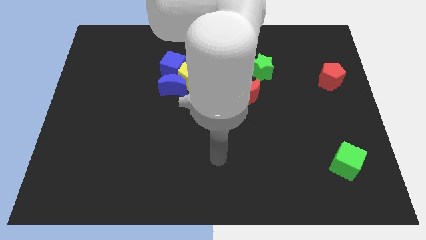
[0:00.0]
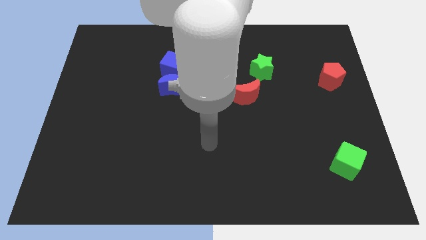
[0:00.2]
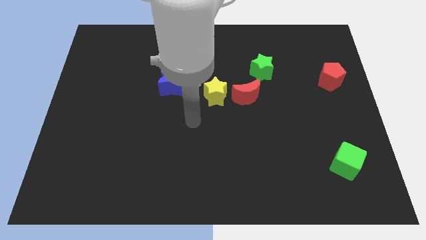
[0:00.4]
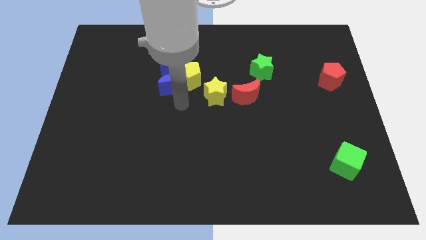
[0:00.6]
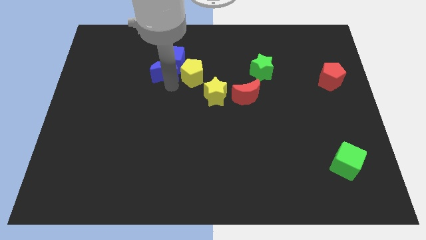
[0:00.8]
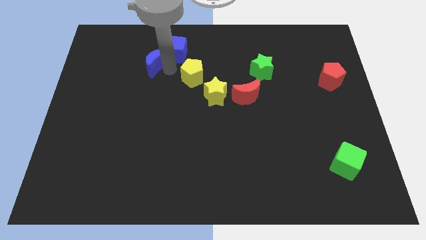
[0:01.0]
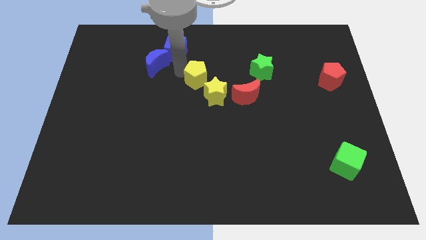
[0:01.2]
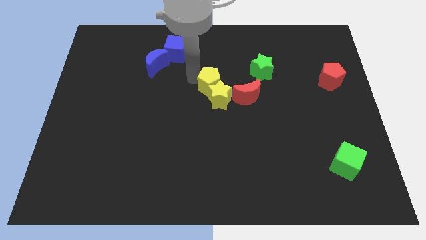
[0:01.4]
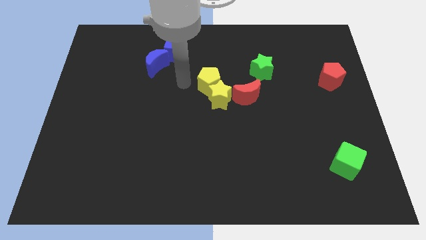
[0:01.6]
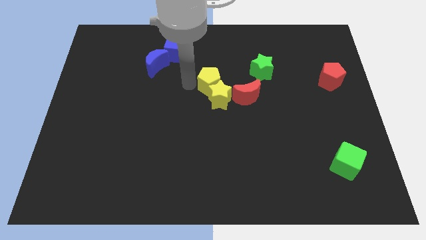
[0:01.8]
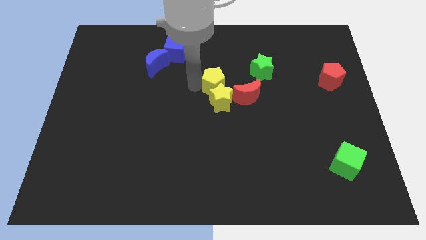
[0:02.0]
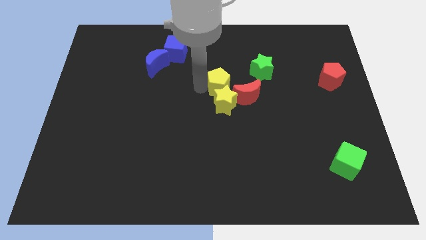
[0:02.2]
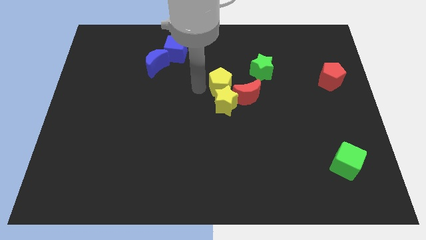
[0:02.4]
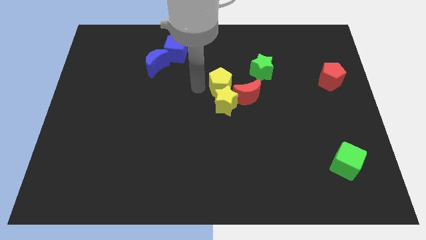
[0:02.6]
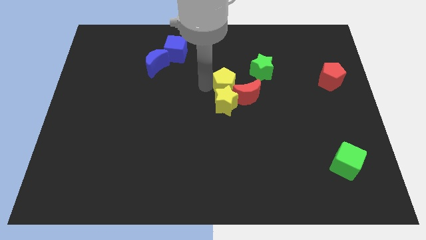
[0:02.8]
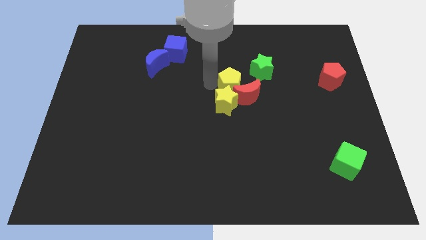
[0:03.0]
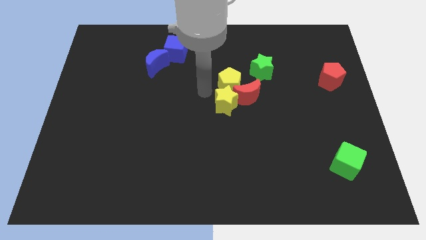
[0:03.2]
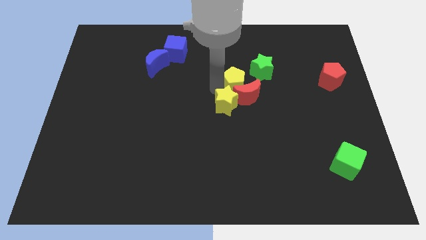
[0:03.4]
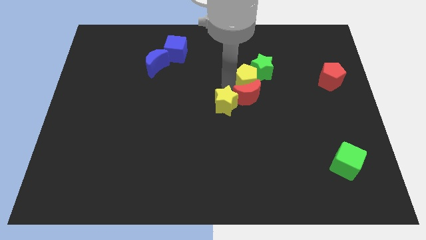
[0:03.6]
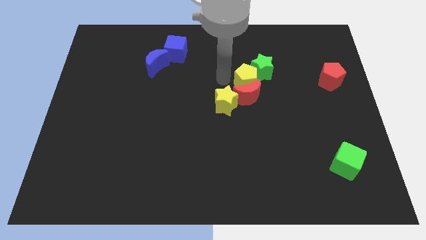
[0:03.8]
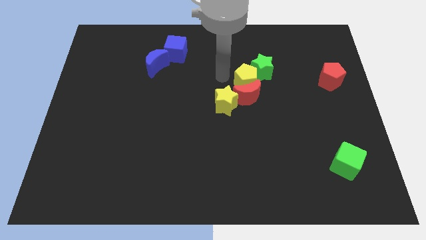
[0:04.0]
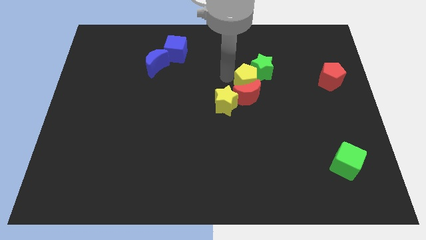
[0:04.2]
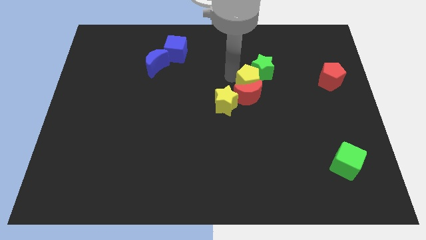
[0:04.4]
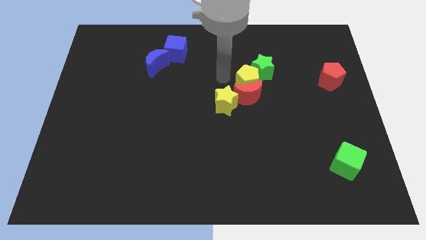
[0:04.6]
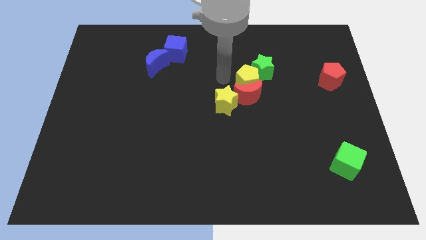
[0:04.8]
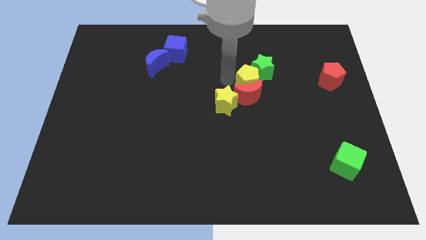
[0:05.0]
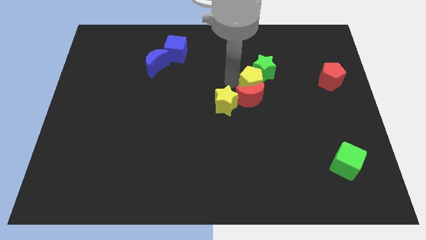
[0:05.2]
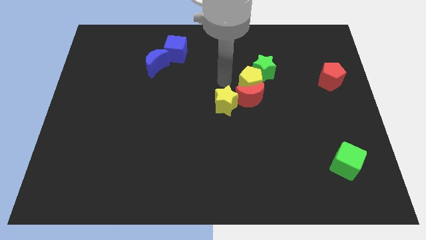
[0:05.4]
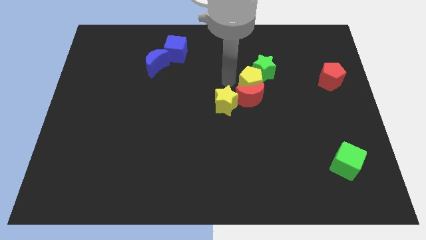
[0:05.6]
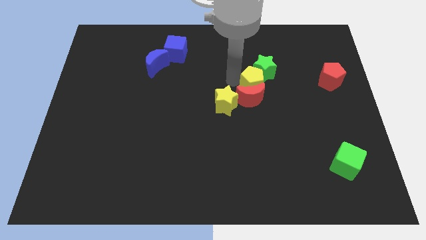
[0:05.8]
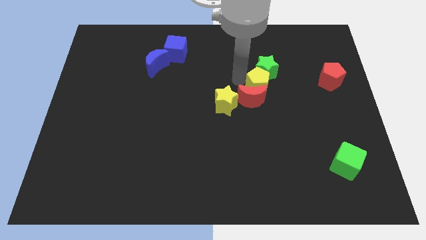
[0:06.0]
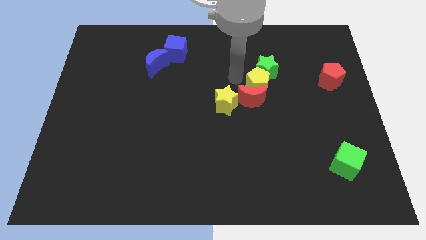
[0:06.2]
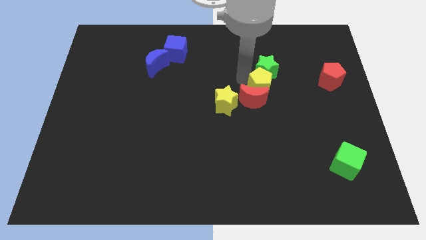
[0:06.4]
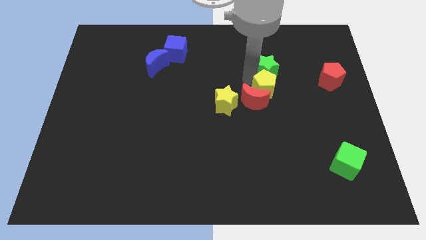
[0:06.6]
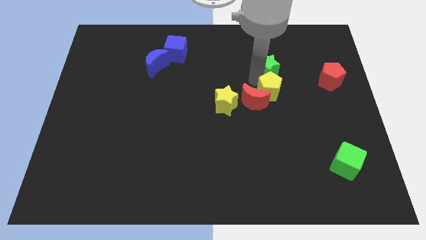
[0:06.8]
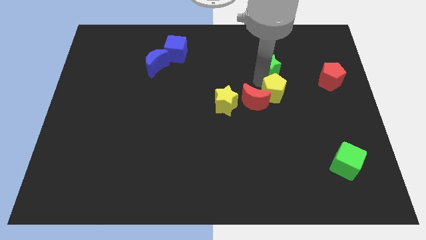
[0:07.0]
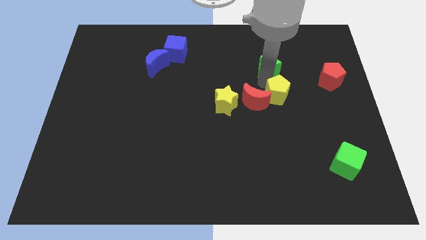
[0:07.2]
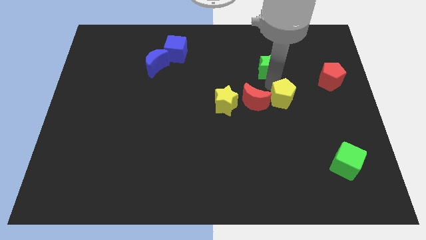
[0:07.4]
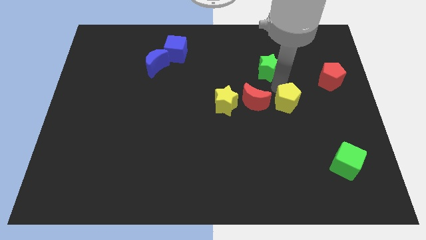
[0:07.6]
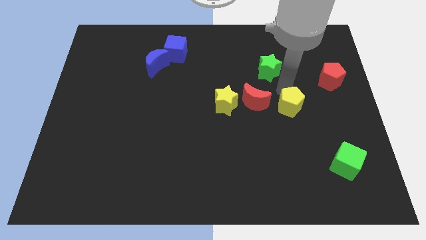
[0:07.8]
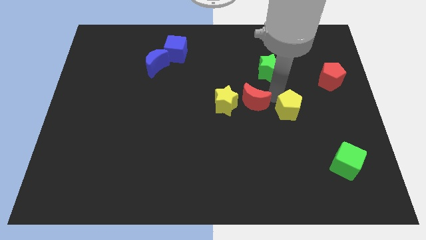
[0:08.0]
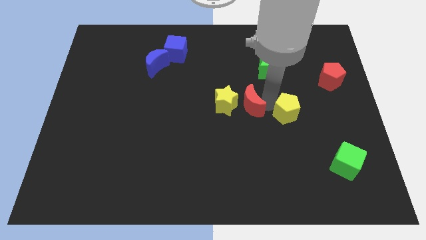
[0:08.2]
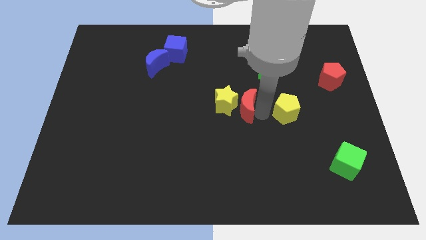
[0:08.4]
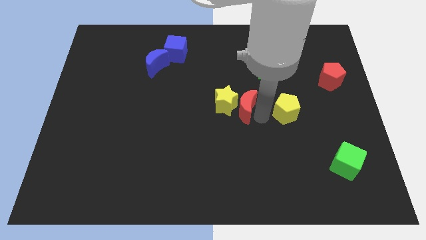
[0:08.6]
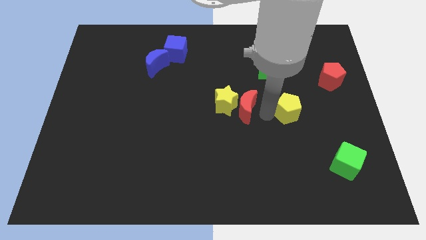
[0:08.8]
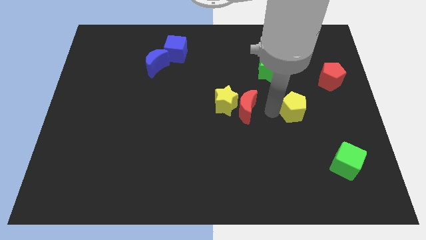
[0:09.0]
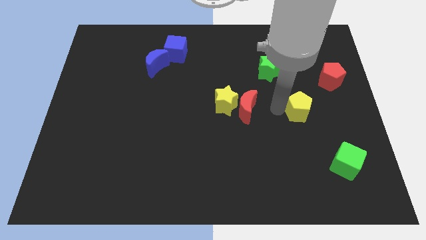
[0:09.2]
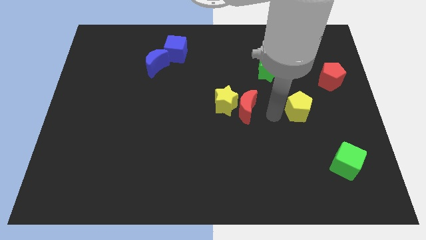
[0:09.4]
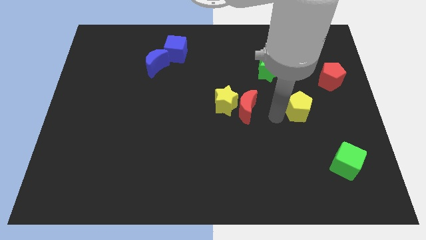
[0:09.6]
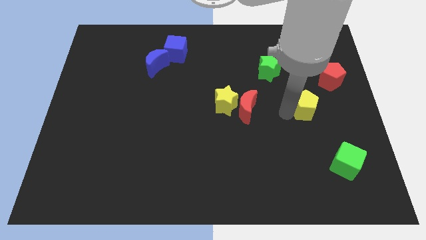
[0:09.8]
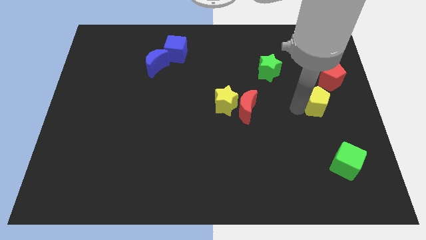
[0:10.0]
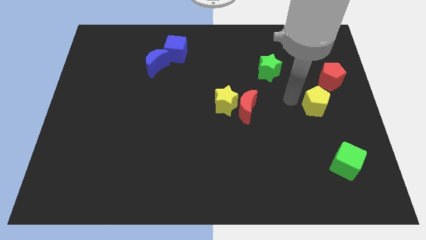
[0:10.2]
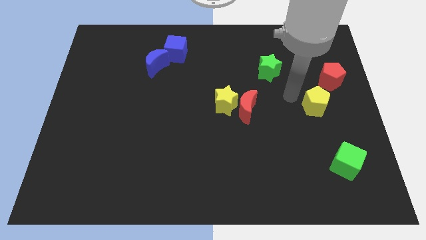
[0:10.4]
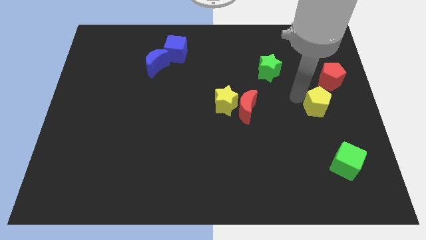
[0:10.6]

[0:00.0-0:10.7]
push the yellow pentagon to the bottom side of the red pentagon

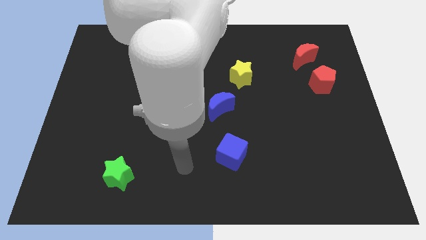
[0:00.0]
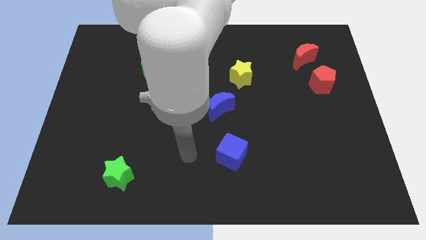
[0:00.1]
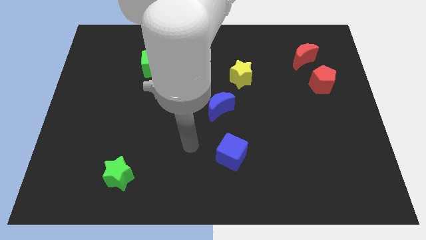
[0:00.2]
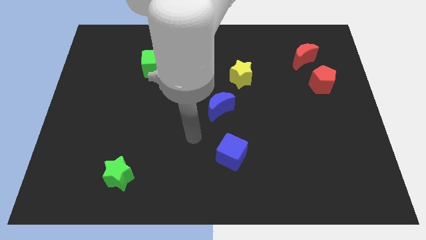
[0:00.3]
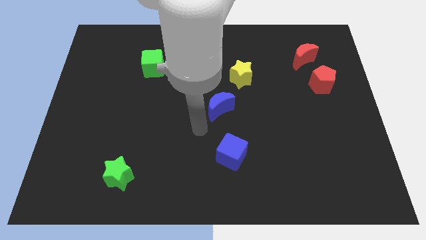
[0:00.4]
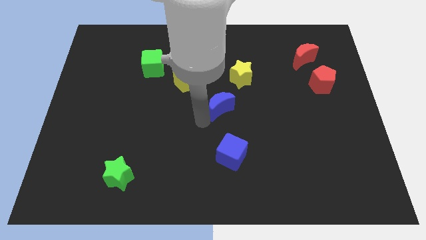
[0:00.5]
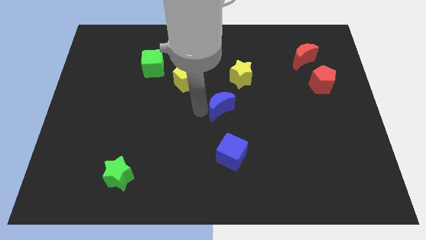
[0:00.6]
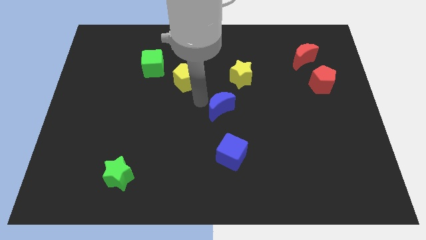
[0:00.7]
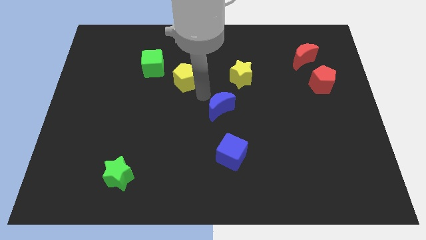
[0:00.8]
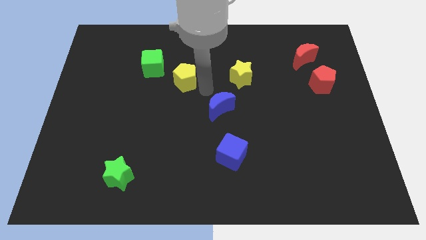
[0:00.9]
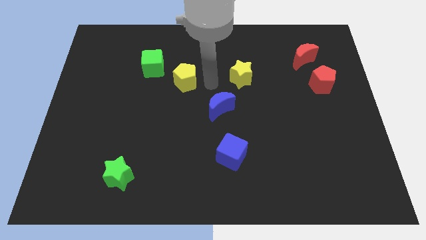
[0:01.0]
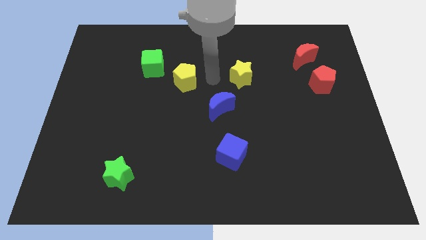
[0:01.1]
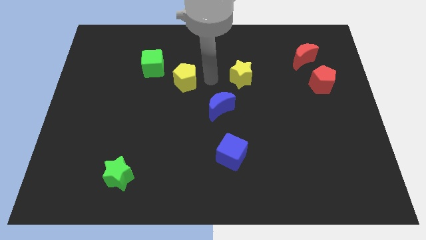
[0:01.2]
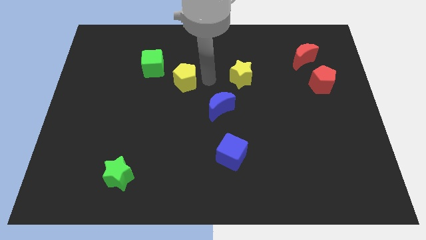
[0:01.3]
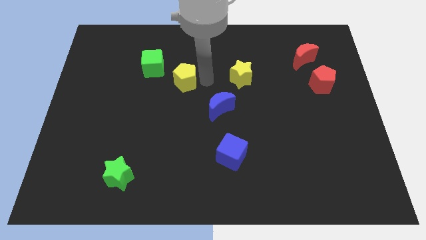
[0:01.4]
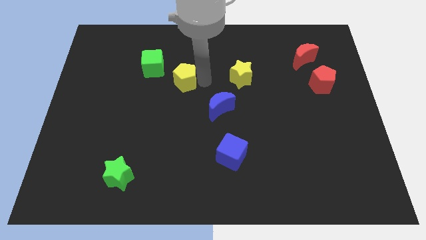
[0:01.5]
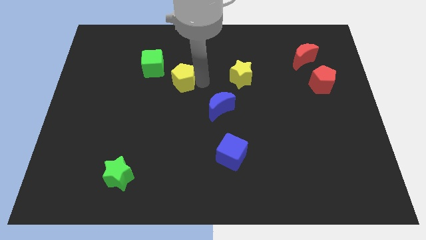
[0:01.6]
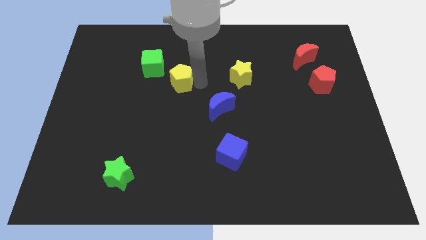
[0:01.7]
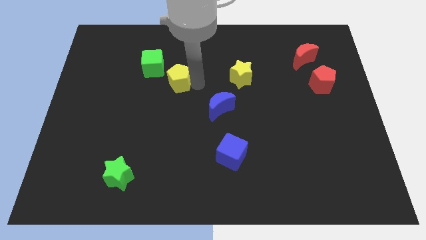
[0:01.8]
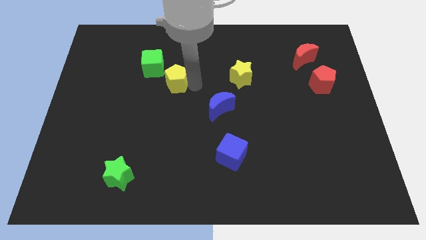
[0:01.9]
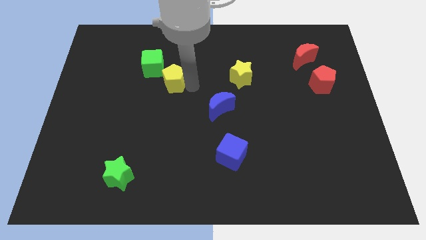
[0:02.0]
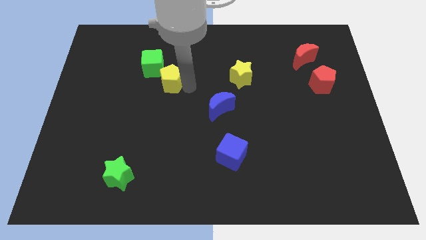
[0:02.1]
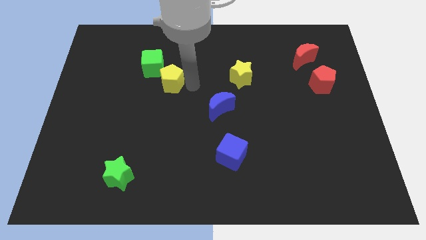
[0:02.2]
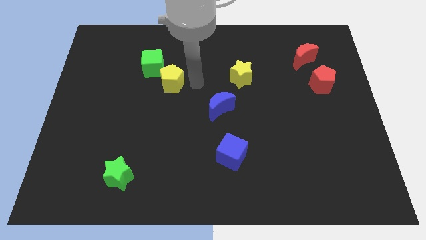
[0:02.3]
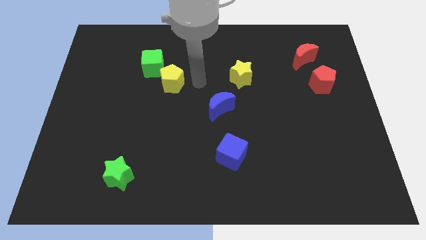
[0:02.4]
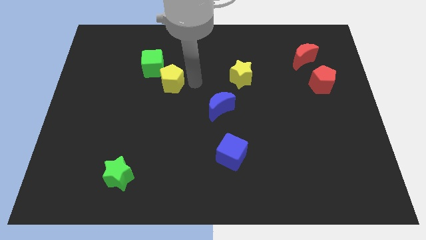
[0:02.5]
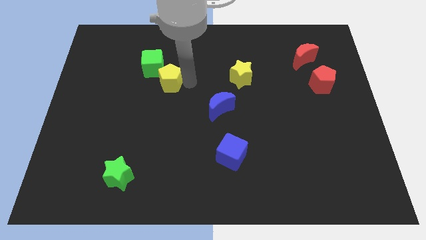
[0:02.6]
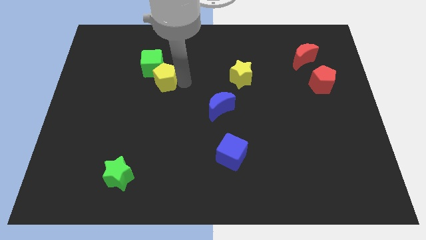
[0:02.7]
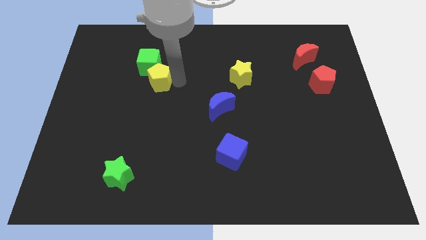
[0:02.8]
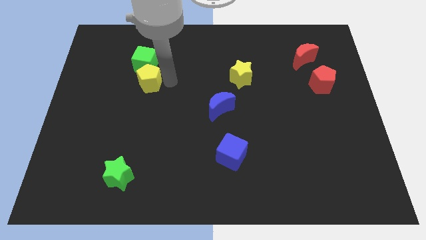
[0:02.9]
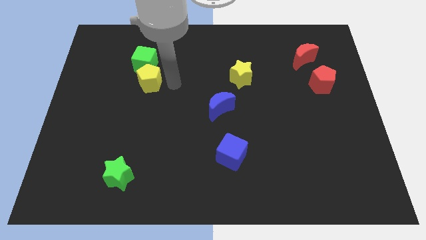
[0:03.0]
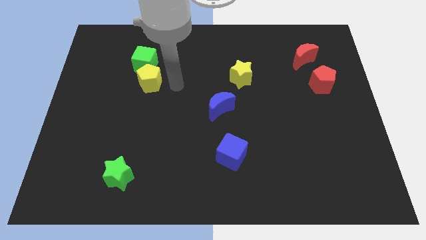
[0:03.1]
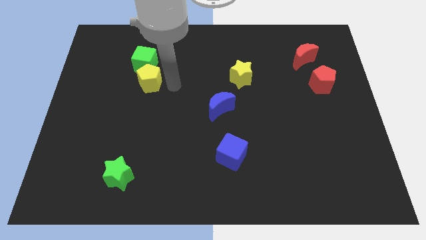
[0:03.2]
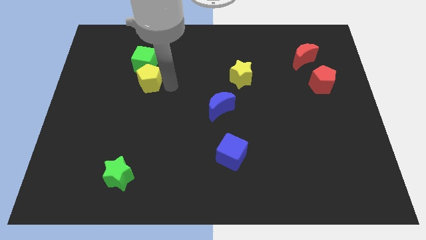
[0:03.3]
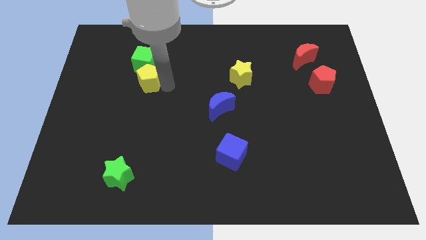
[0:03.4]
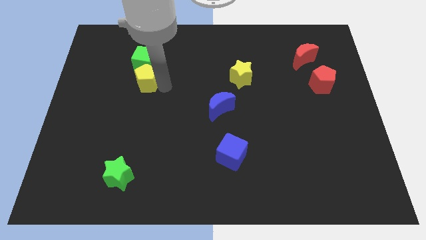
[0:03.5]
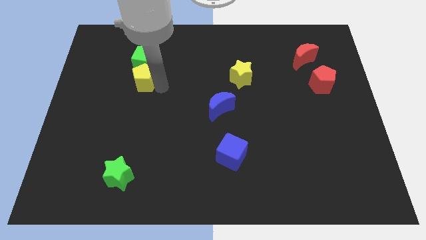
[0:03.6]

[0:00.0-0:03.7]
push the yellow pentagon diagonally down and to the left of the green cube
